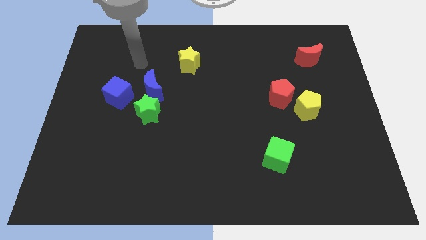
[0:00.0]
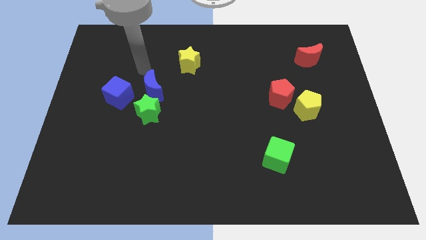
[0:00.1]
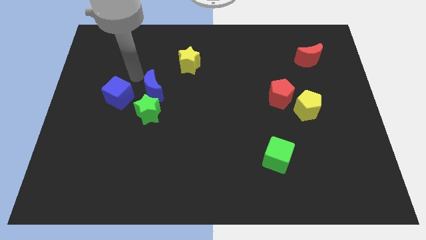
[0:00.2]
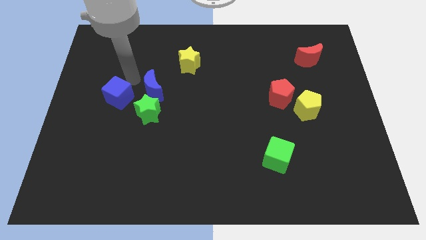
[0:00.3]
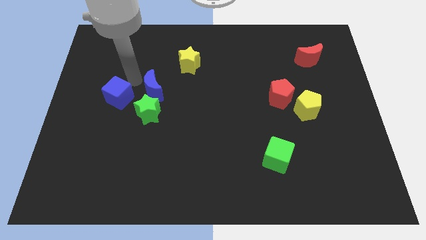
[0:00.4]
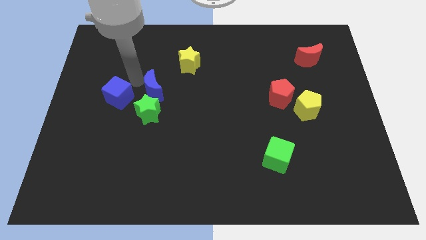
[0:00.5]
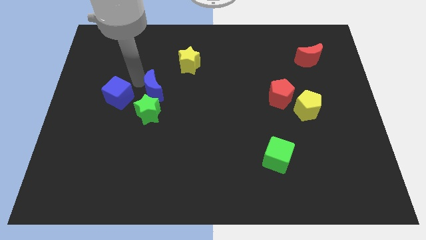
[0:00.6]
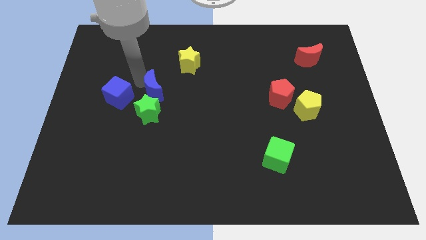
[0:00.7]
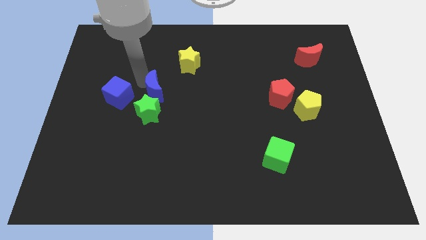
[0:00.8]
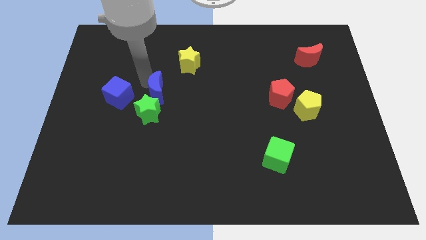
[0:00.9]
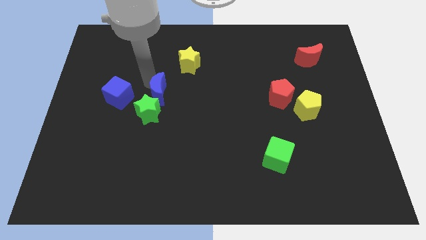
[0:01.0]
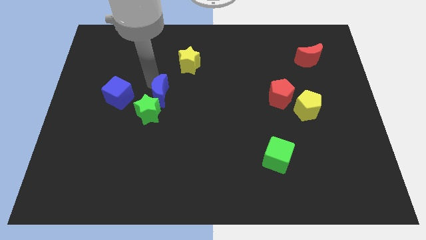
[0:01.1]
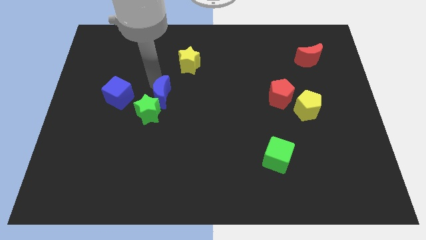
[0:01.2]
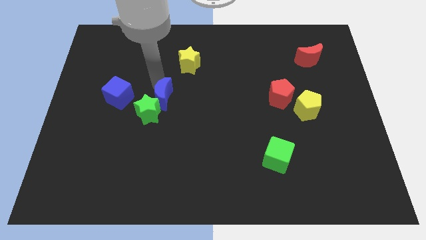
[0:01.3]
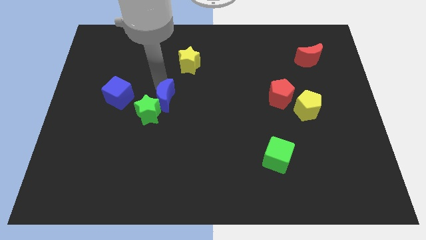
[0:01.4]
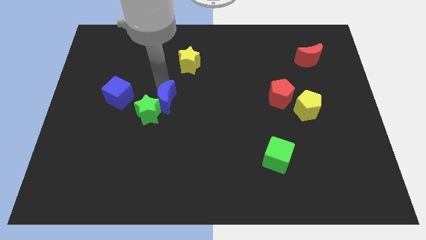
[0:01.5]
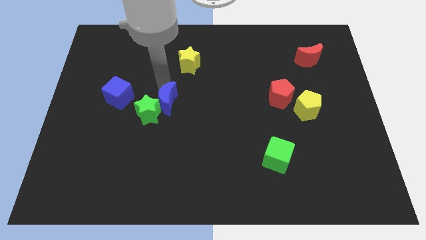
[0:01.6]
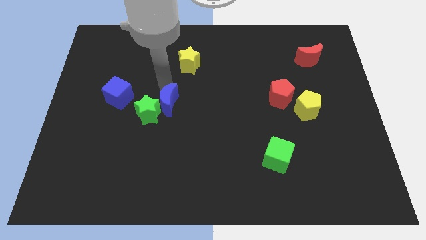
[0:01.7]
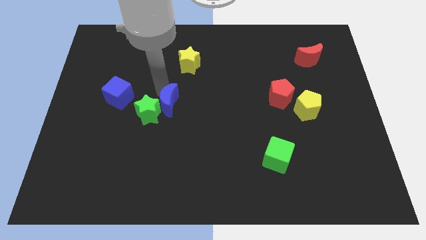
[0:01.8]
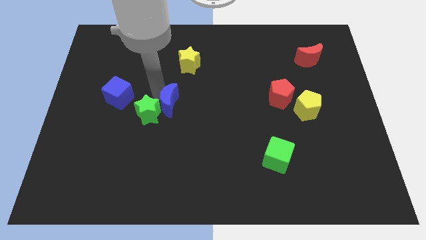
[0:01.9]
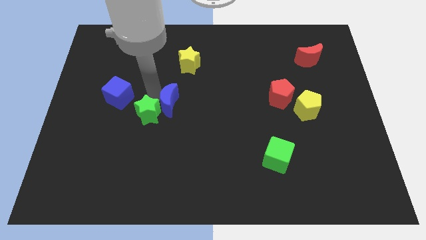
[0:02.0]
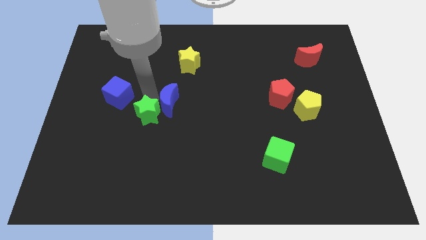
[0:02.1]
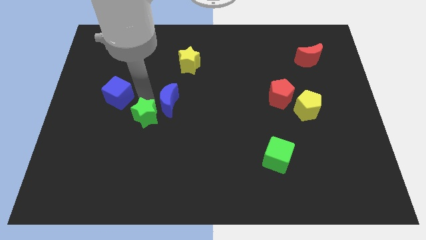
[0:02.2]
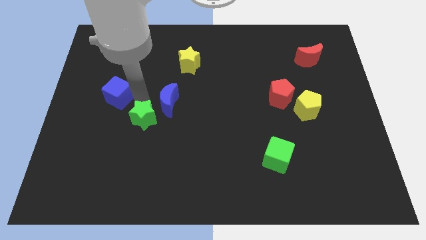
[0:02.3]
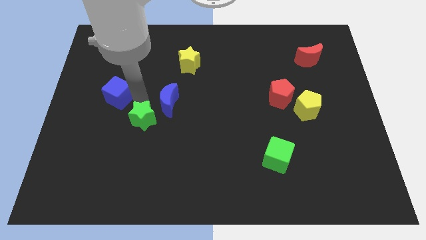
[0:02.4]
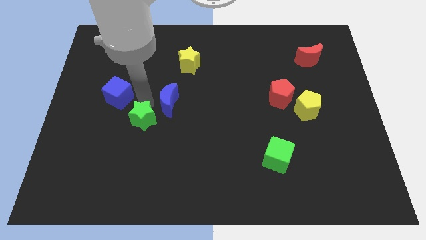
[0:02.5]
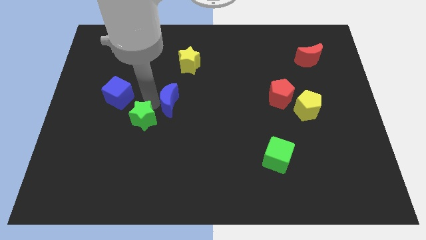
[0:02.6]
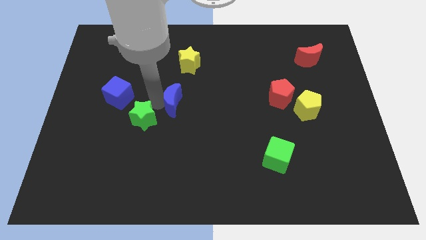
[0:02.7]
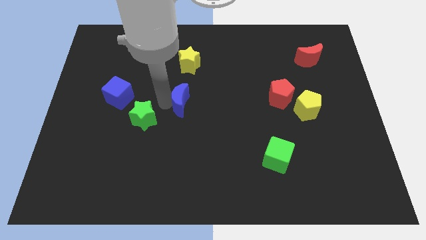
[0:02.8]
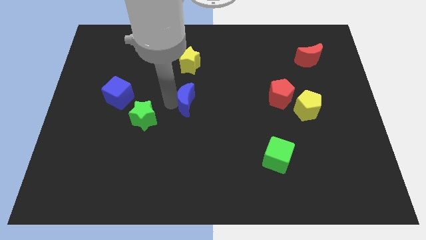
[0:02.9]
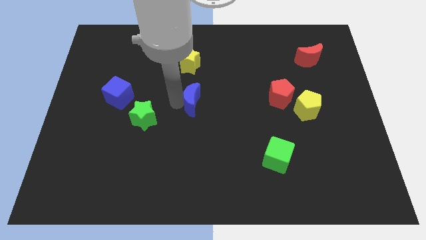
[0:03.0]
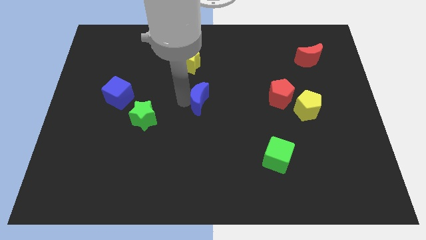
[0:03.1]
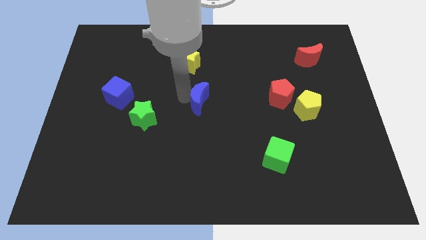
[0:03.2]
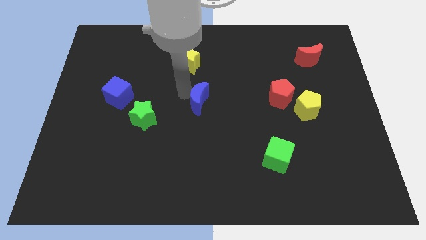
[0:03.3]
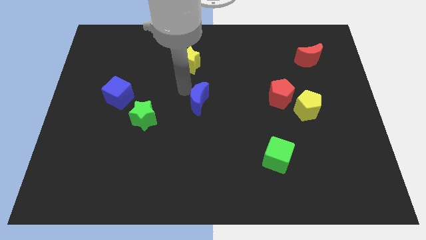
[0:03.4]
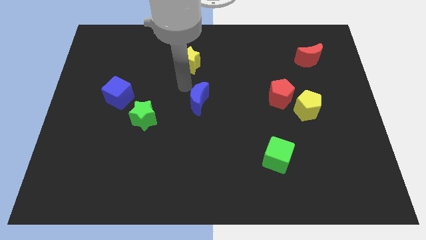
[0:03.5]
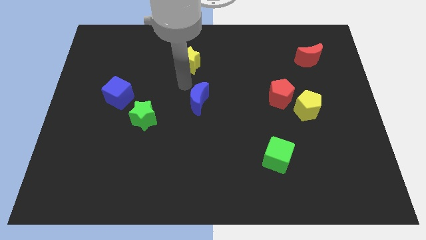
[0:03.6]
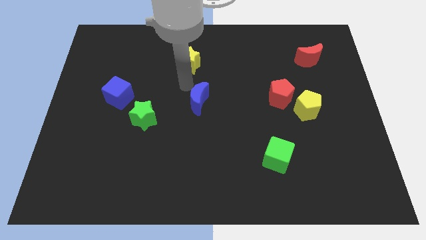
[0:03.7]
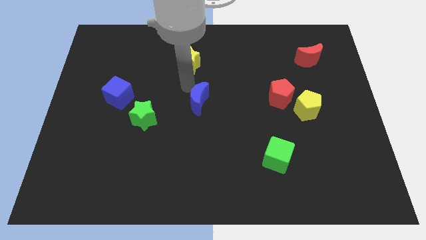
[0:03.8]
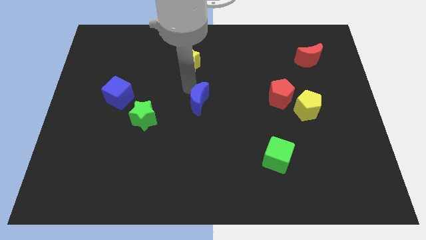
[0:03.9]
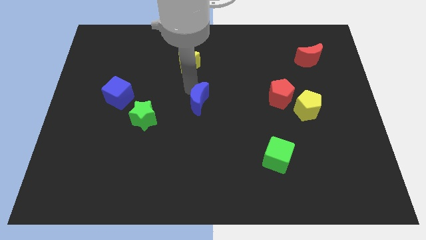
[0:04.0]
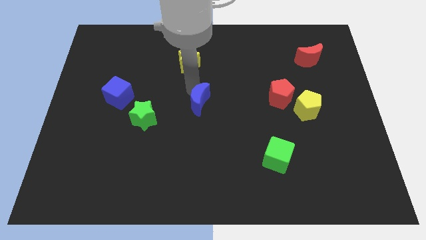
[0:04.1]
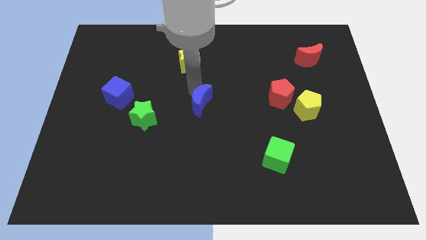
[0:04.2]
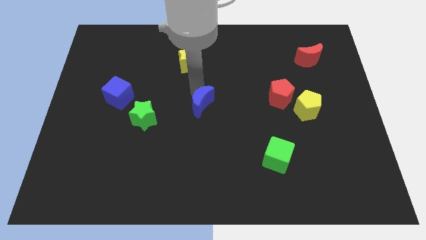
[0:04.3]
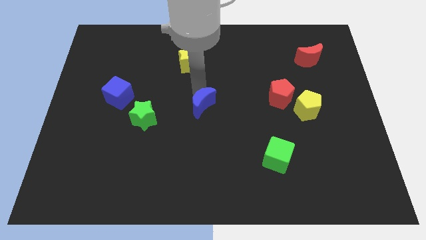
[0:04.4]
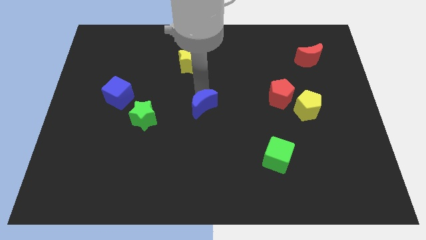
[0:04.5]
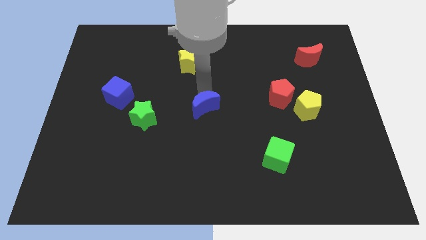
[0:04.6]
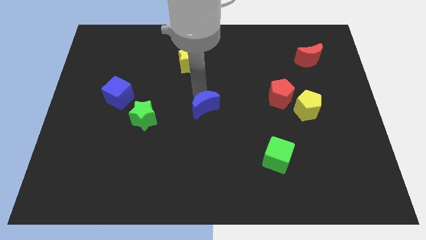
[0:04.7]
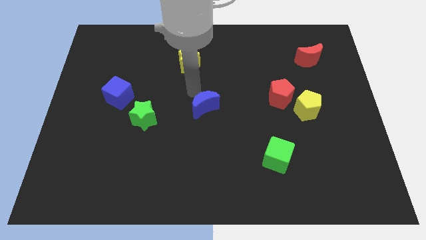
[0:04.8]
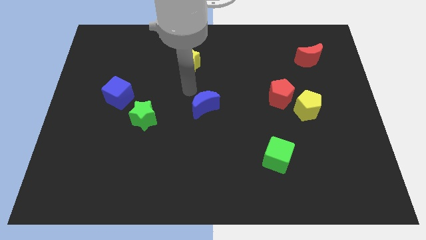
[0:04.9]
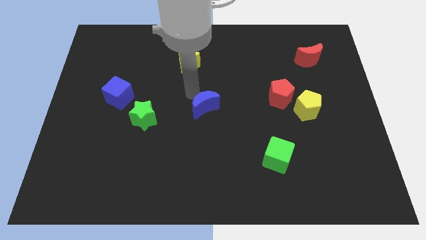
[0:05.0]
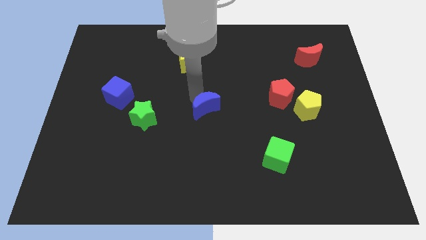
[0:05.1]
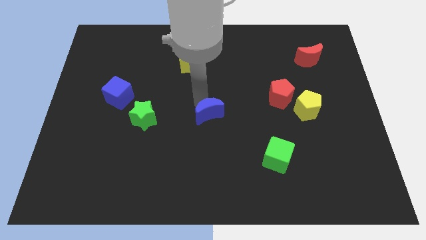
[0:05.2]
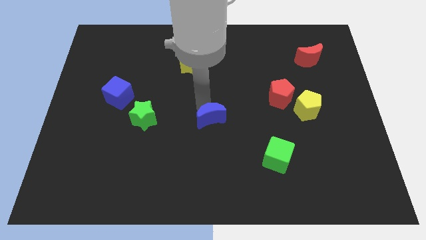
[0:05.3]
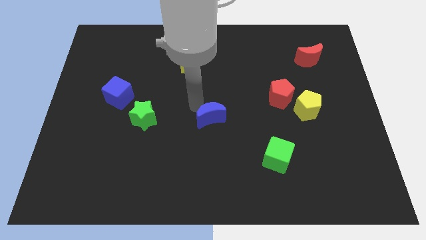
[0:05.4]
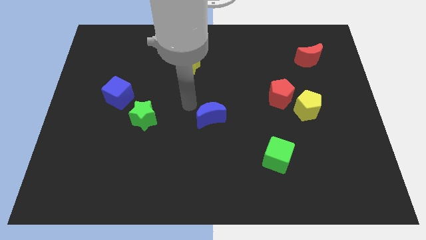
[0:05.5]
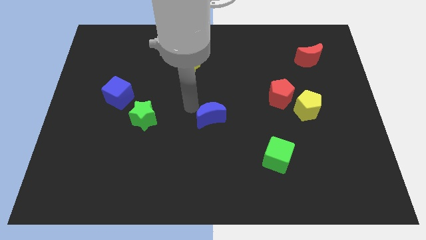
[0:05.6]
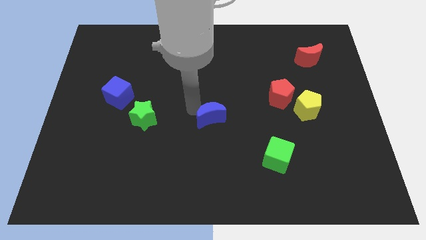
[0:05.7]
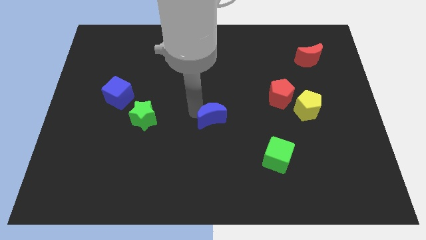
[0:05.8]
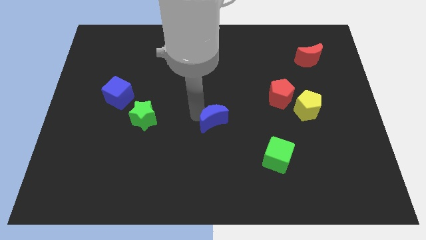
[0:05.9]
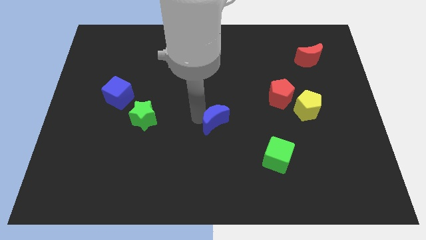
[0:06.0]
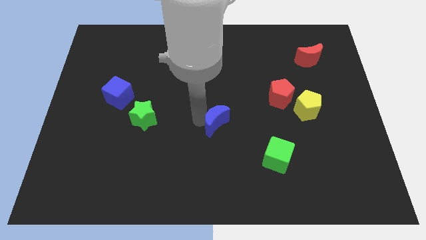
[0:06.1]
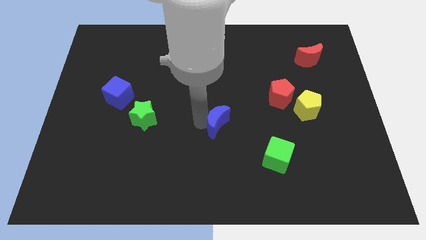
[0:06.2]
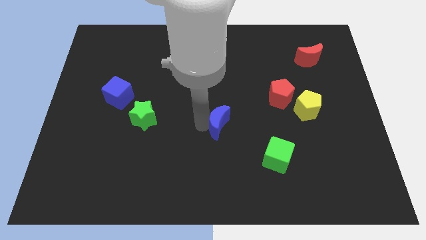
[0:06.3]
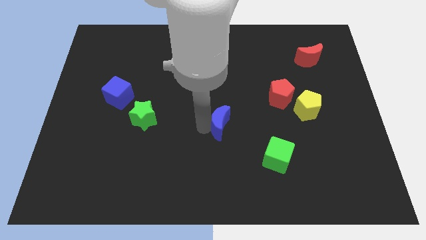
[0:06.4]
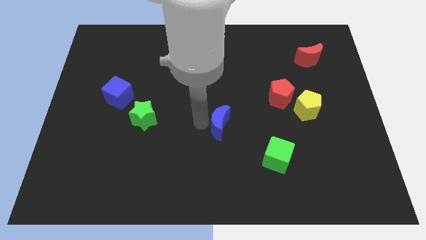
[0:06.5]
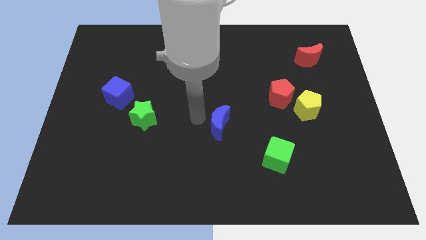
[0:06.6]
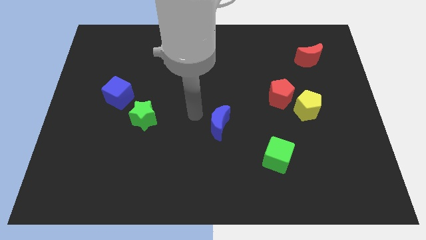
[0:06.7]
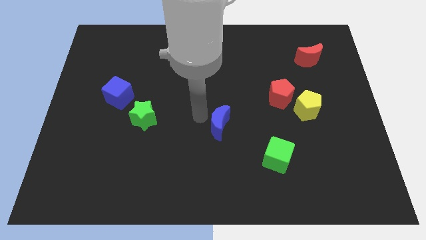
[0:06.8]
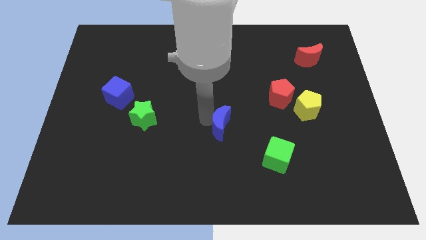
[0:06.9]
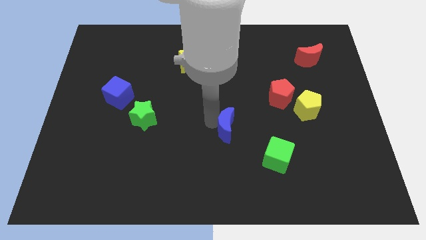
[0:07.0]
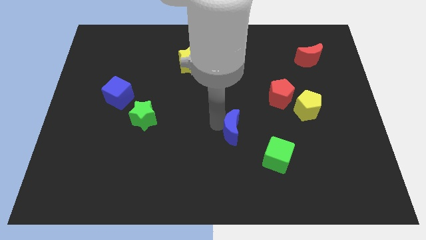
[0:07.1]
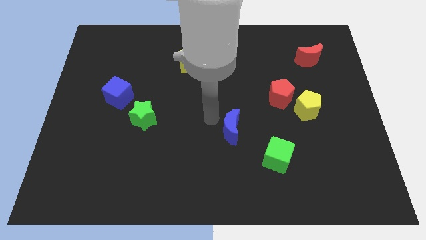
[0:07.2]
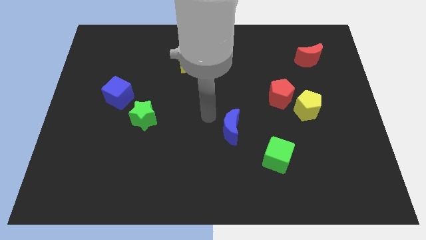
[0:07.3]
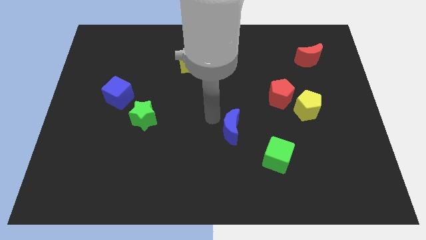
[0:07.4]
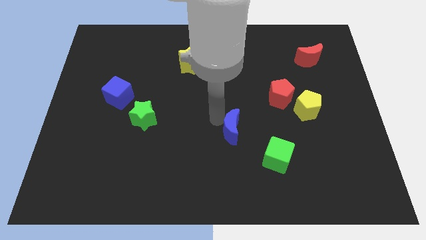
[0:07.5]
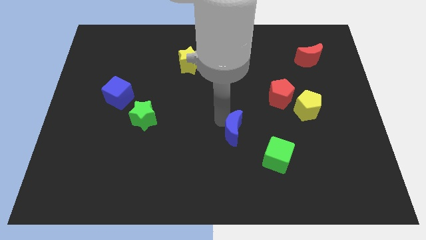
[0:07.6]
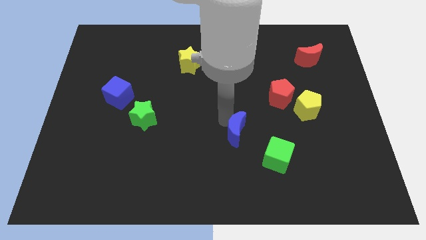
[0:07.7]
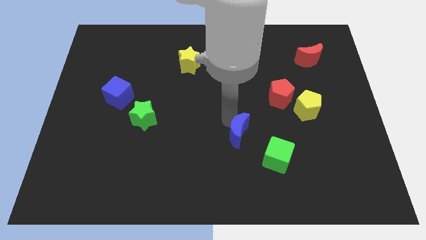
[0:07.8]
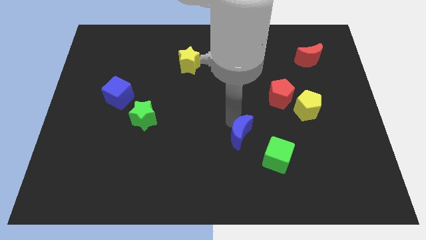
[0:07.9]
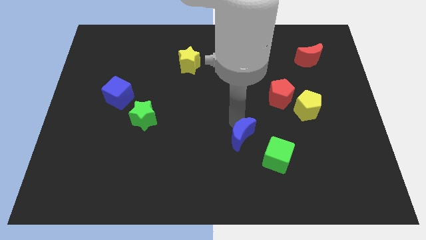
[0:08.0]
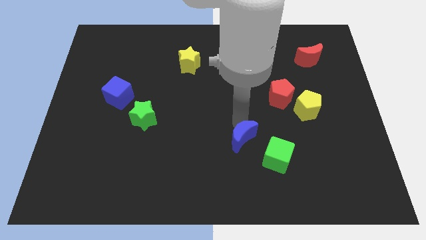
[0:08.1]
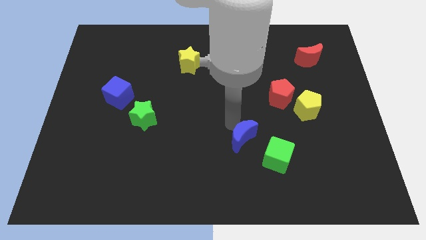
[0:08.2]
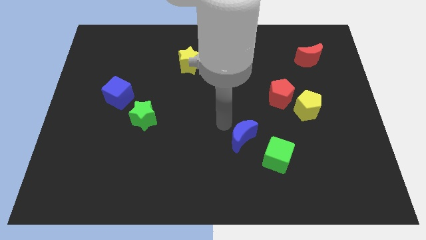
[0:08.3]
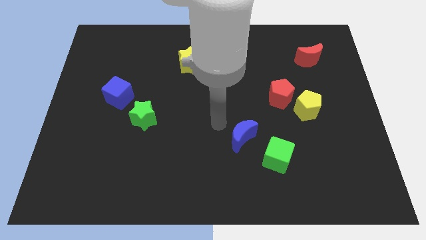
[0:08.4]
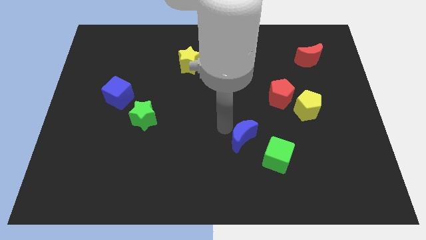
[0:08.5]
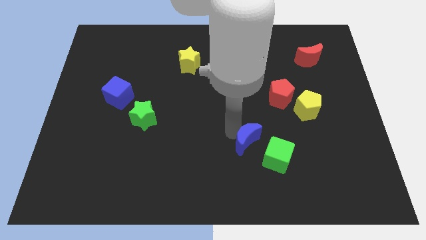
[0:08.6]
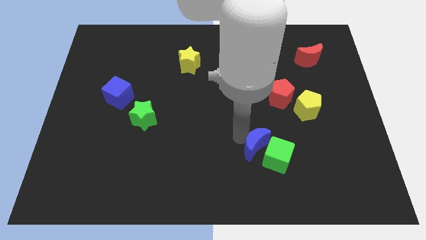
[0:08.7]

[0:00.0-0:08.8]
put the blue moon towards the green cube
